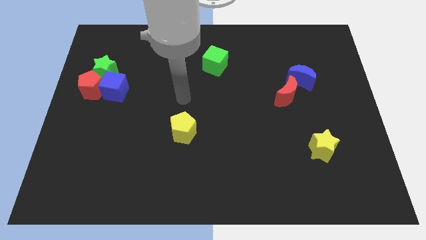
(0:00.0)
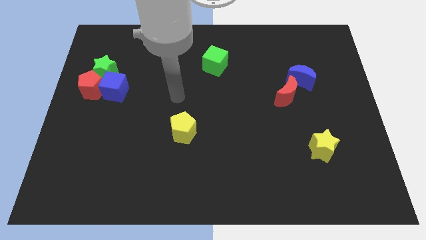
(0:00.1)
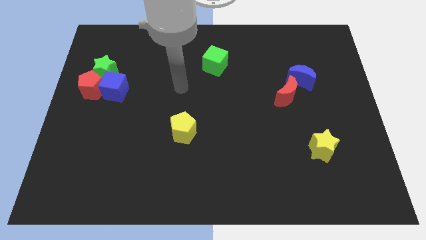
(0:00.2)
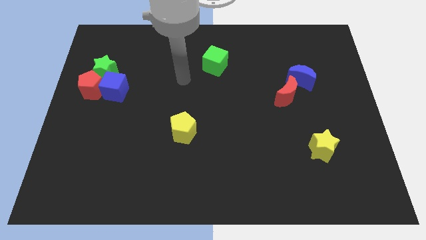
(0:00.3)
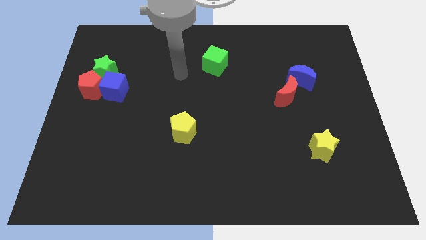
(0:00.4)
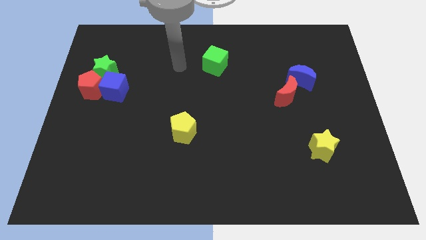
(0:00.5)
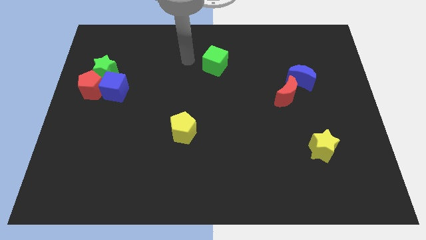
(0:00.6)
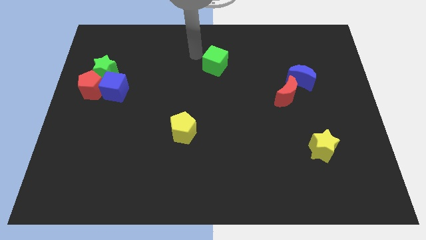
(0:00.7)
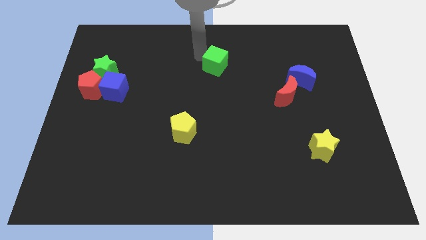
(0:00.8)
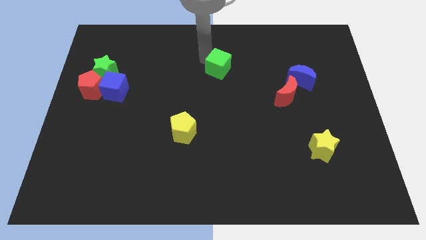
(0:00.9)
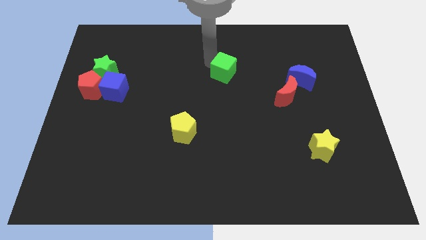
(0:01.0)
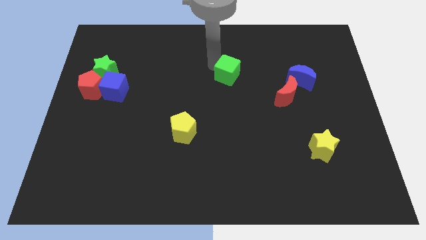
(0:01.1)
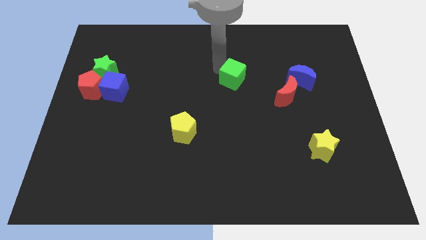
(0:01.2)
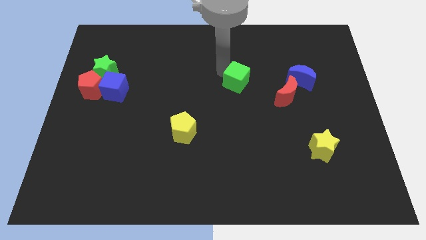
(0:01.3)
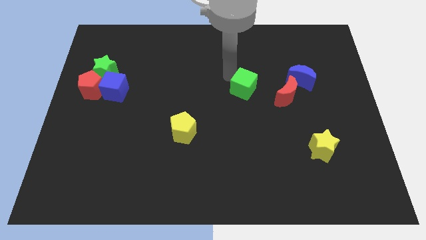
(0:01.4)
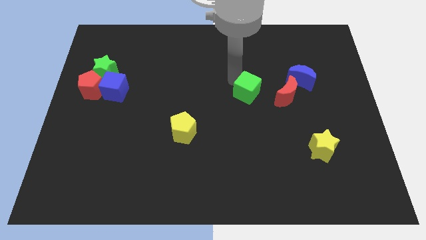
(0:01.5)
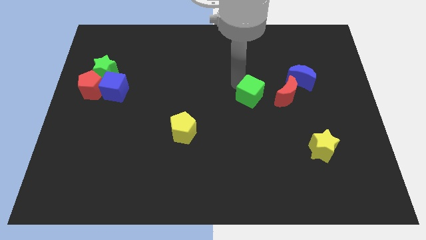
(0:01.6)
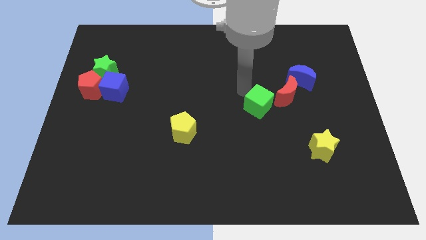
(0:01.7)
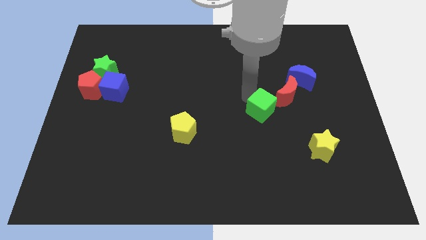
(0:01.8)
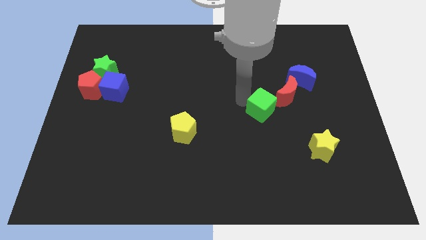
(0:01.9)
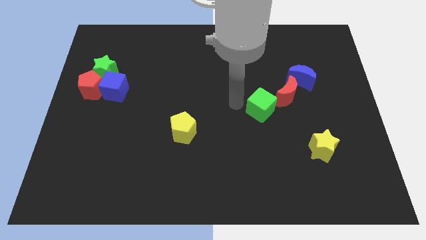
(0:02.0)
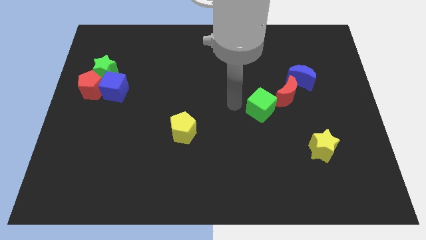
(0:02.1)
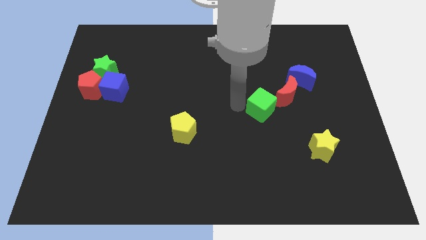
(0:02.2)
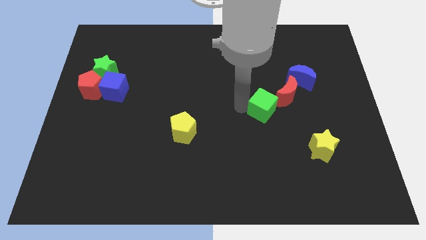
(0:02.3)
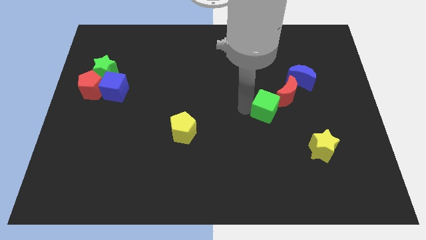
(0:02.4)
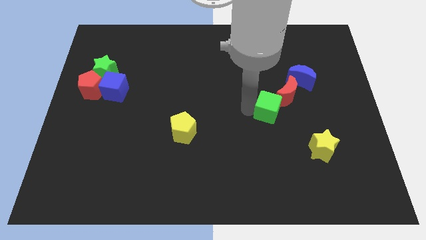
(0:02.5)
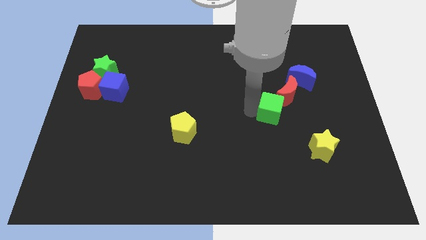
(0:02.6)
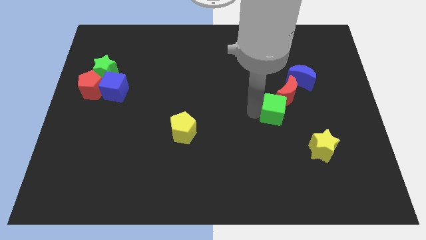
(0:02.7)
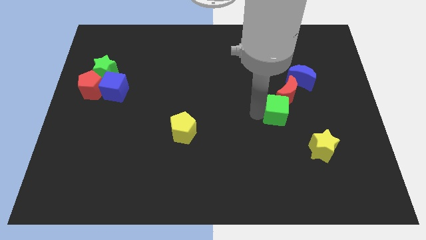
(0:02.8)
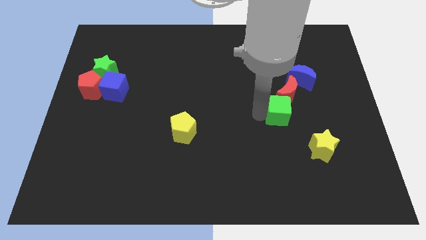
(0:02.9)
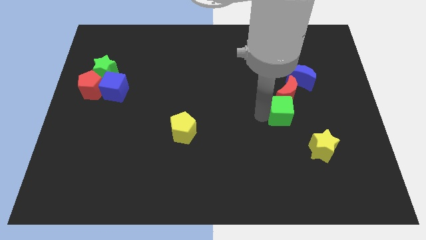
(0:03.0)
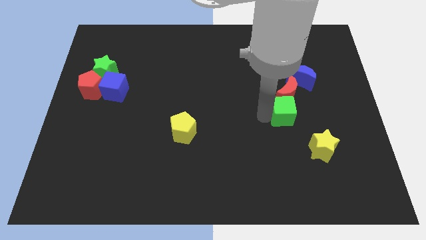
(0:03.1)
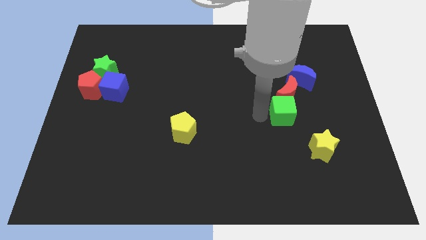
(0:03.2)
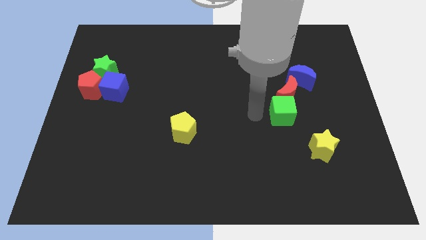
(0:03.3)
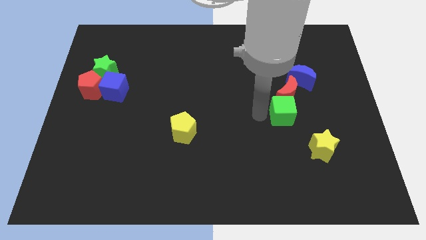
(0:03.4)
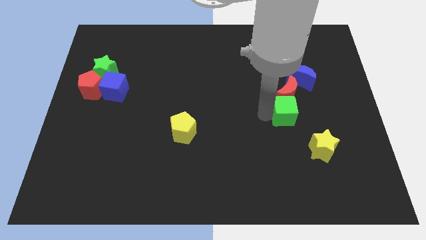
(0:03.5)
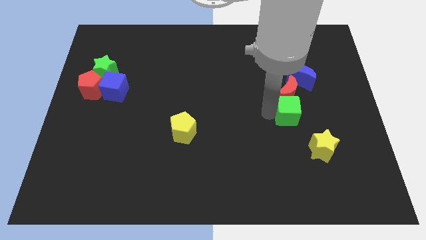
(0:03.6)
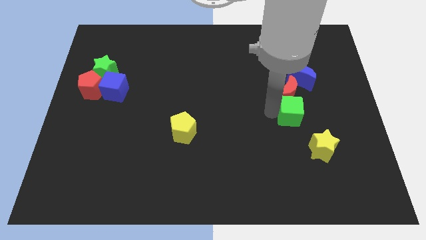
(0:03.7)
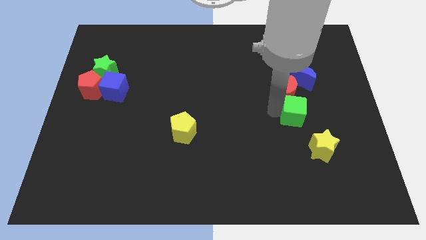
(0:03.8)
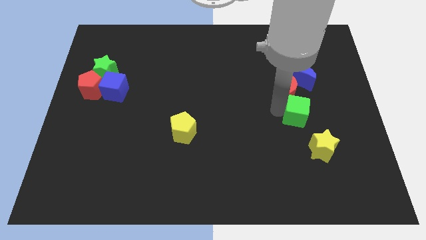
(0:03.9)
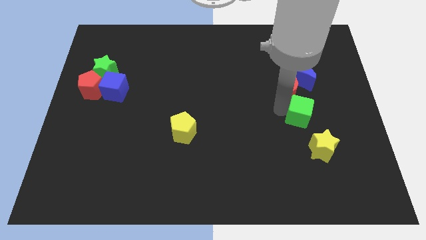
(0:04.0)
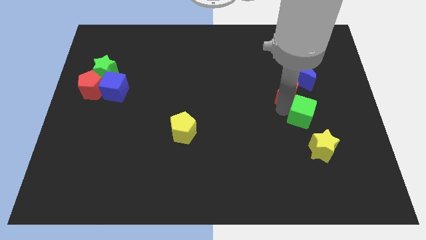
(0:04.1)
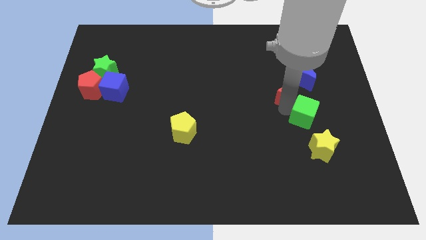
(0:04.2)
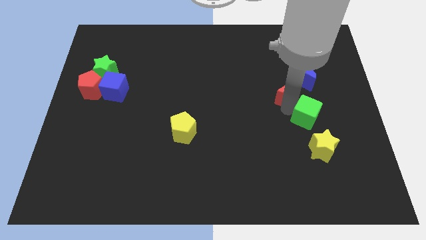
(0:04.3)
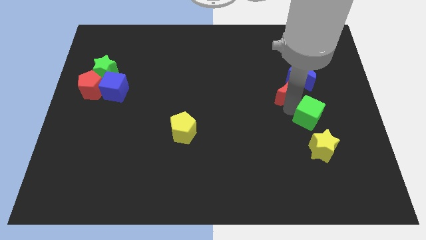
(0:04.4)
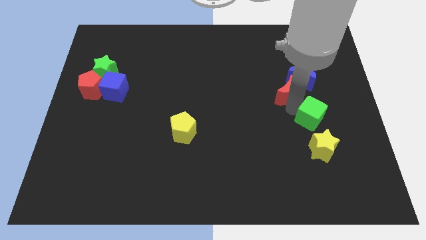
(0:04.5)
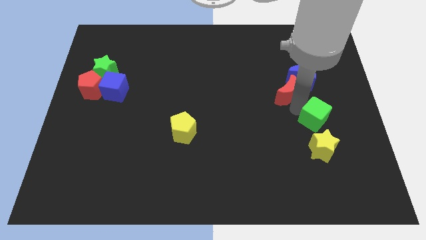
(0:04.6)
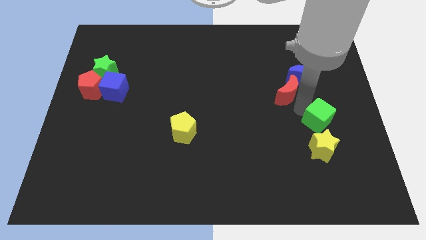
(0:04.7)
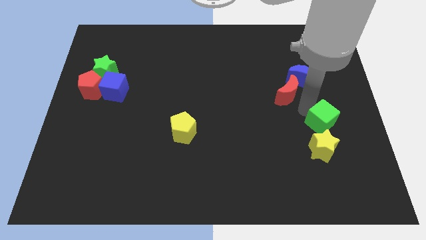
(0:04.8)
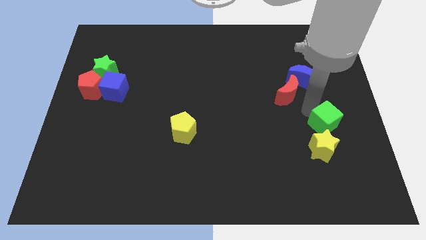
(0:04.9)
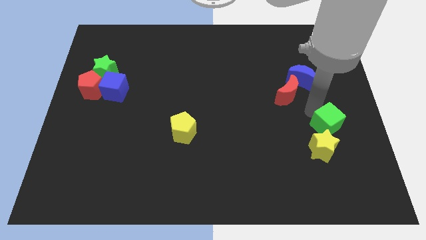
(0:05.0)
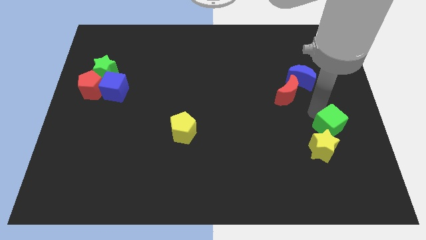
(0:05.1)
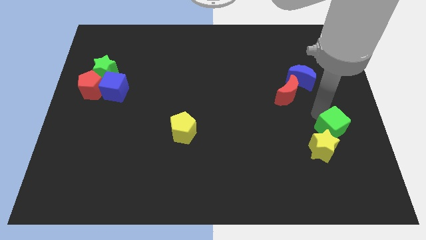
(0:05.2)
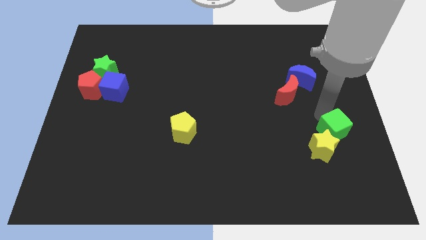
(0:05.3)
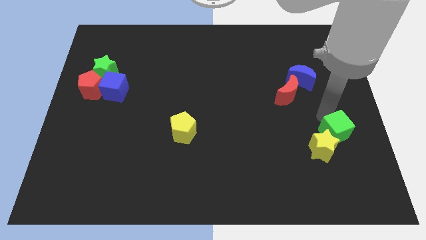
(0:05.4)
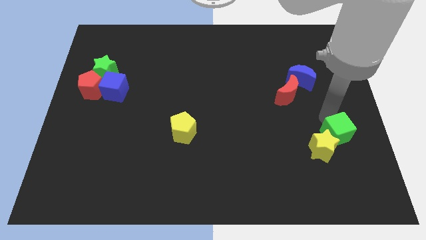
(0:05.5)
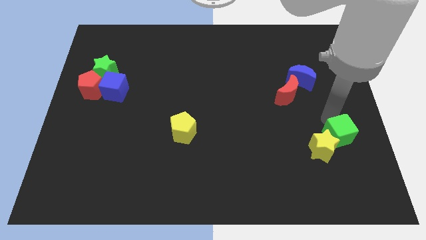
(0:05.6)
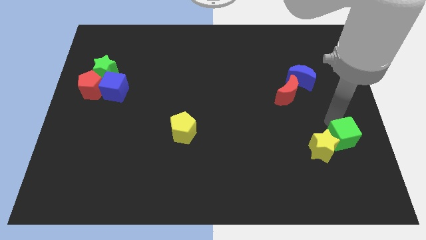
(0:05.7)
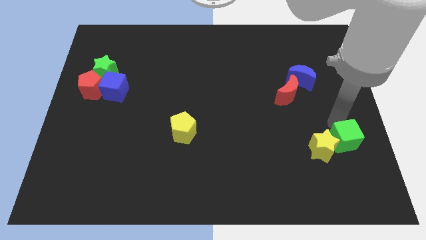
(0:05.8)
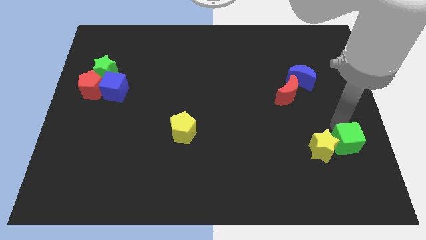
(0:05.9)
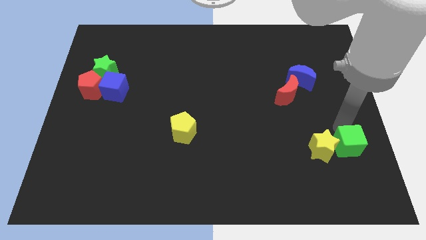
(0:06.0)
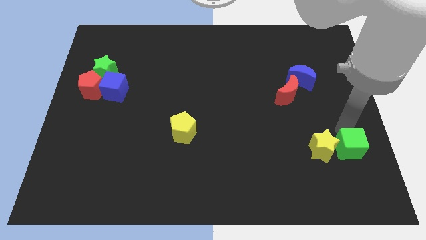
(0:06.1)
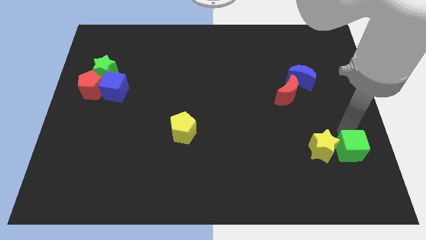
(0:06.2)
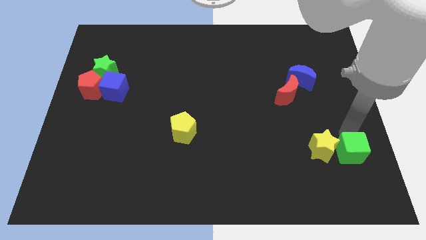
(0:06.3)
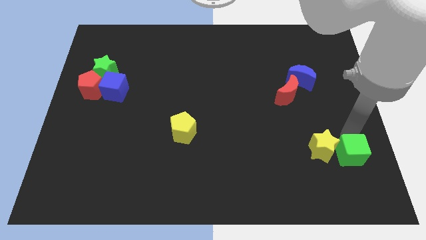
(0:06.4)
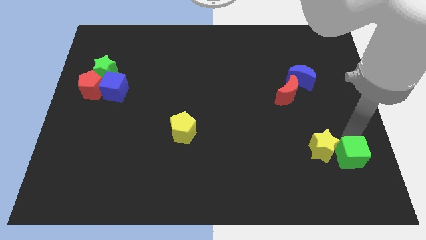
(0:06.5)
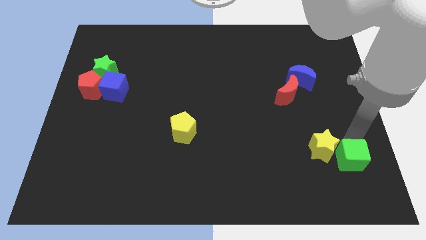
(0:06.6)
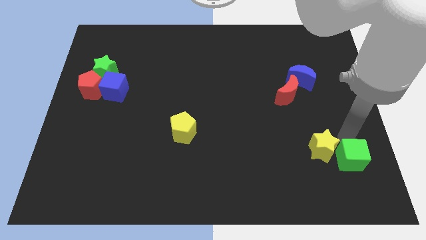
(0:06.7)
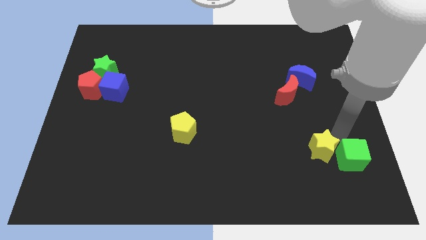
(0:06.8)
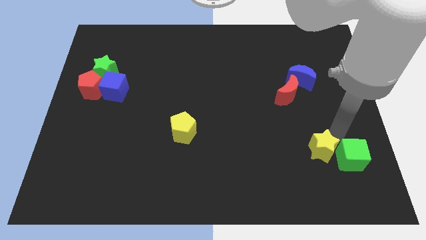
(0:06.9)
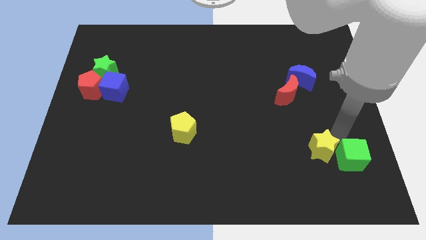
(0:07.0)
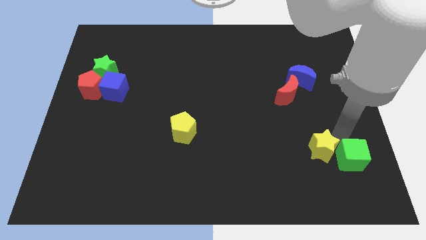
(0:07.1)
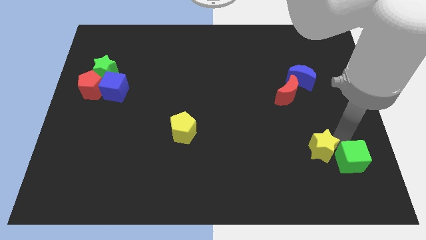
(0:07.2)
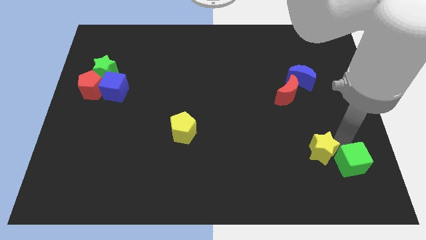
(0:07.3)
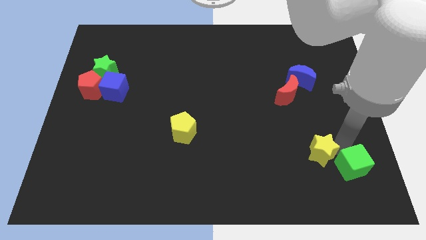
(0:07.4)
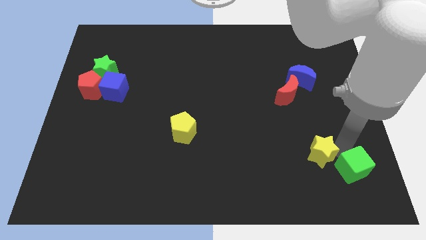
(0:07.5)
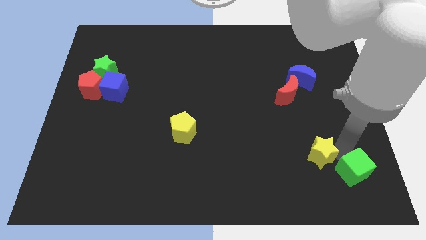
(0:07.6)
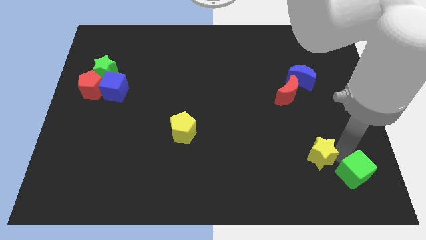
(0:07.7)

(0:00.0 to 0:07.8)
push the green cube to the bottom right corner
